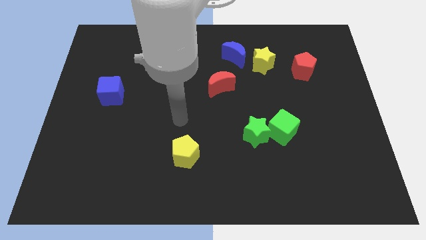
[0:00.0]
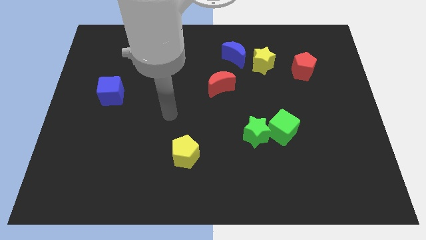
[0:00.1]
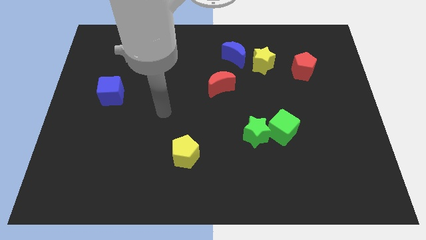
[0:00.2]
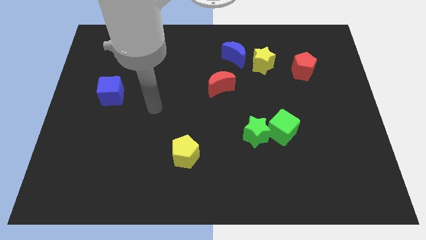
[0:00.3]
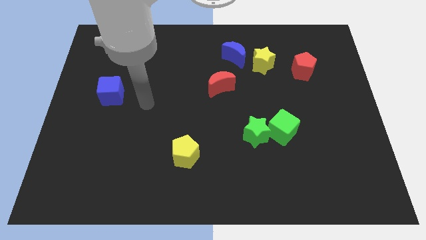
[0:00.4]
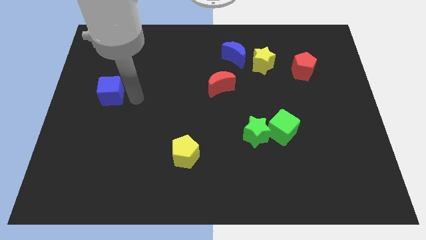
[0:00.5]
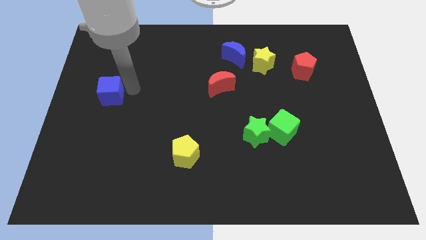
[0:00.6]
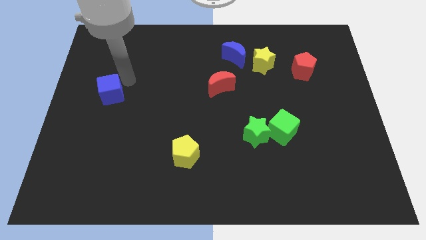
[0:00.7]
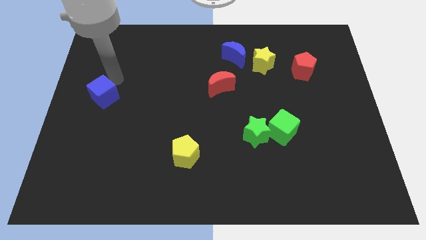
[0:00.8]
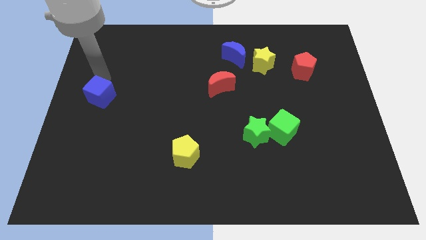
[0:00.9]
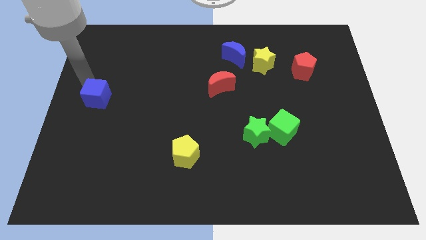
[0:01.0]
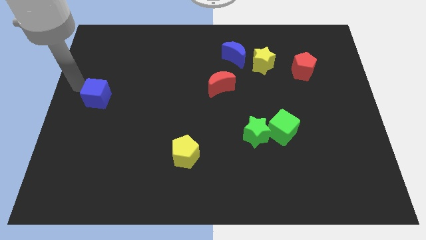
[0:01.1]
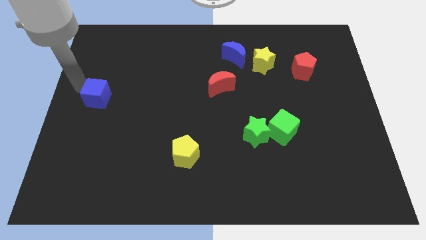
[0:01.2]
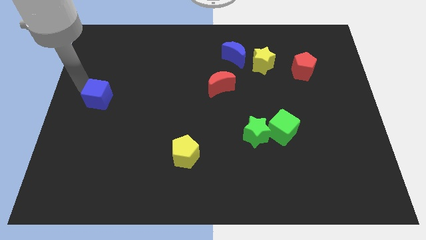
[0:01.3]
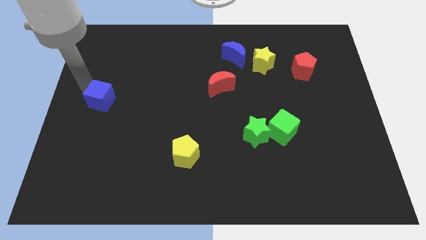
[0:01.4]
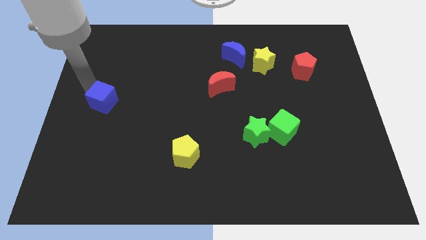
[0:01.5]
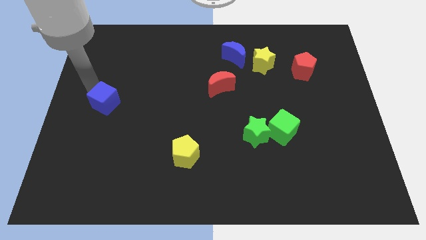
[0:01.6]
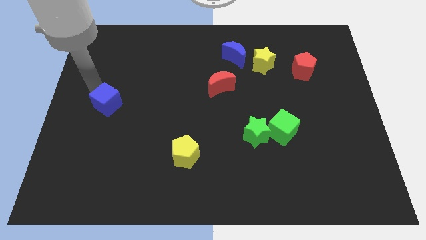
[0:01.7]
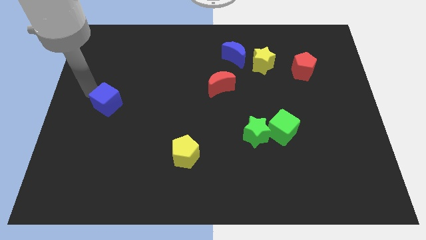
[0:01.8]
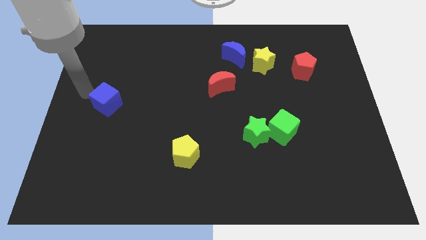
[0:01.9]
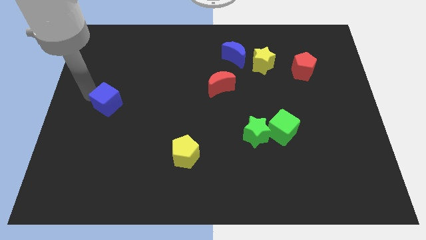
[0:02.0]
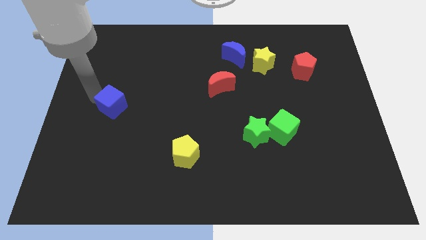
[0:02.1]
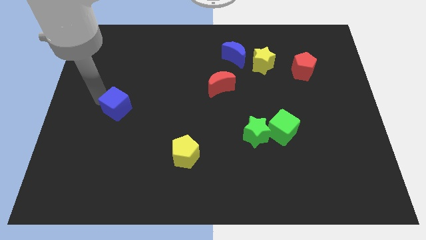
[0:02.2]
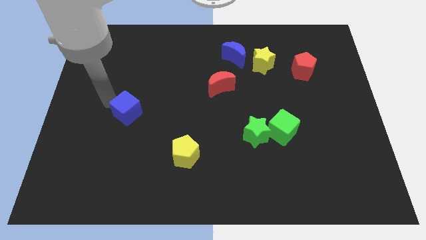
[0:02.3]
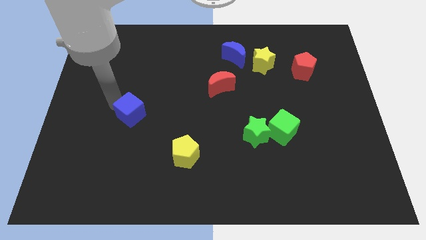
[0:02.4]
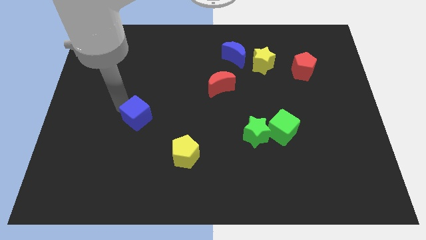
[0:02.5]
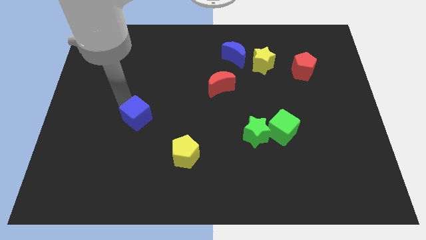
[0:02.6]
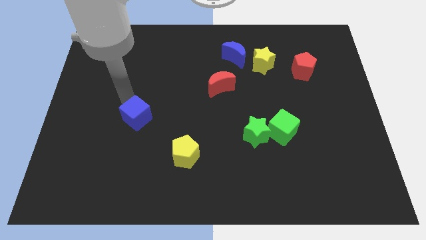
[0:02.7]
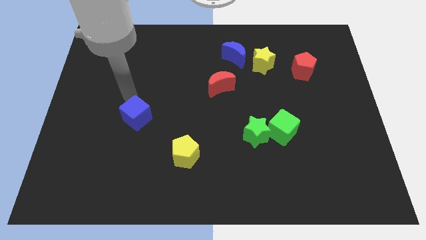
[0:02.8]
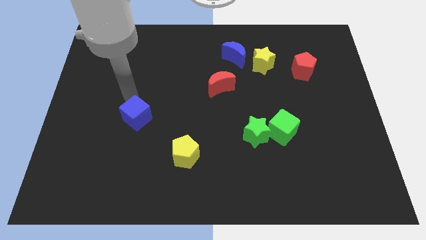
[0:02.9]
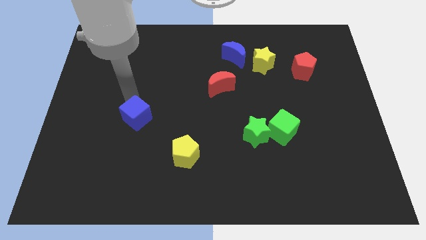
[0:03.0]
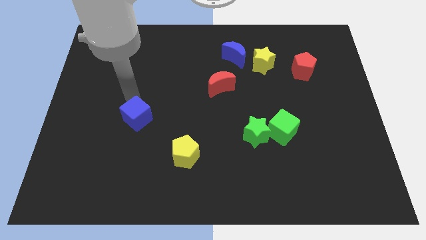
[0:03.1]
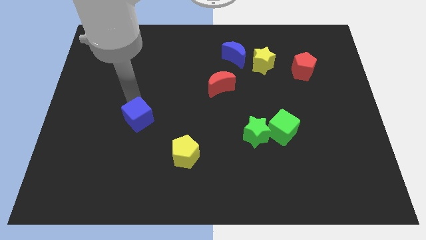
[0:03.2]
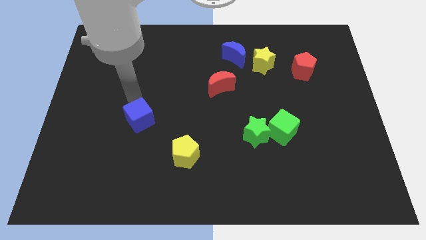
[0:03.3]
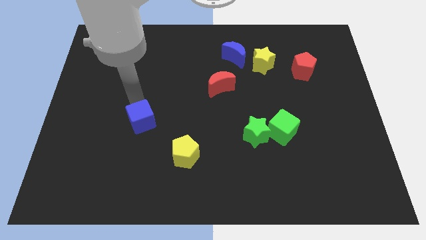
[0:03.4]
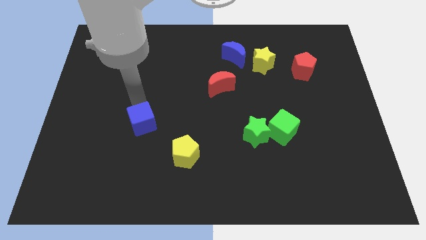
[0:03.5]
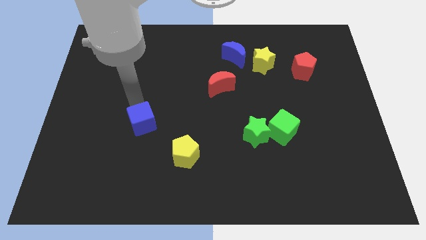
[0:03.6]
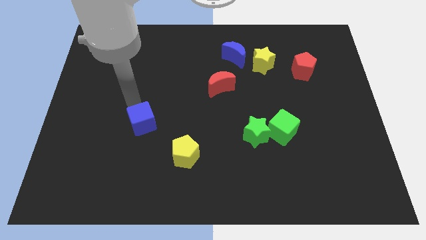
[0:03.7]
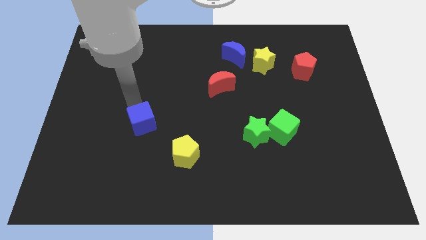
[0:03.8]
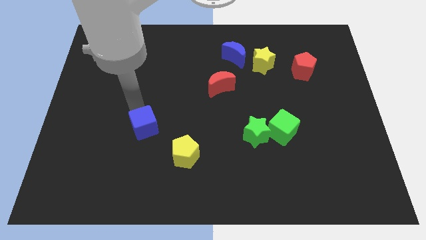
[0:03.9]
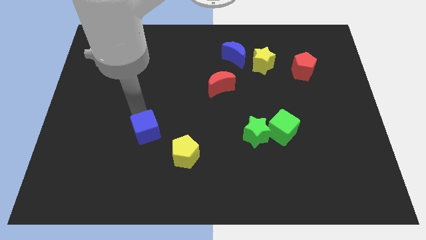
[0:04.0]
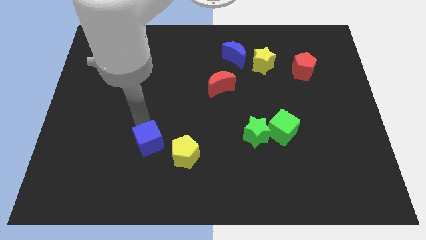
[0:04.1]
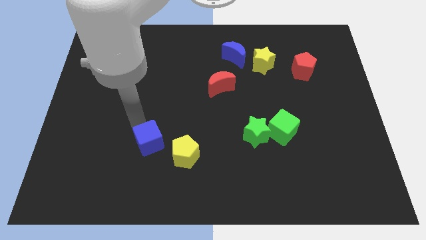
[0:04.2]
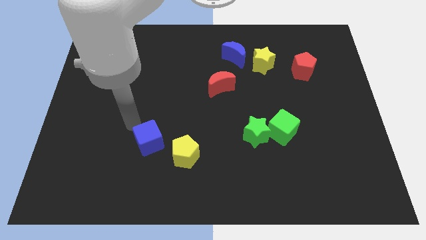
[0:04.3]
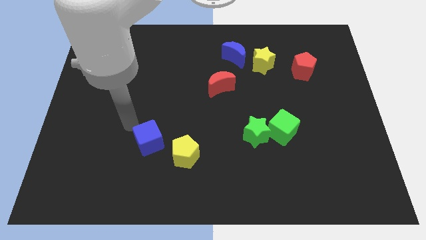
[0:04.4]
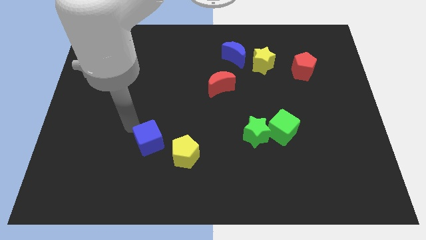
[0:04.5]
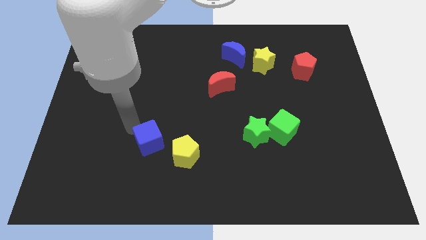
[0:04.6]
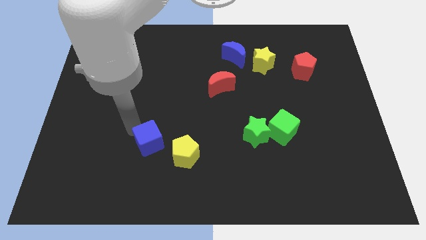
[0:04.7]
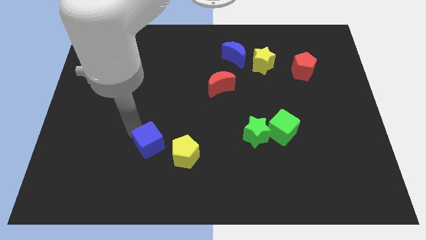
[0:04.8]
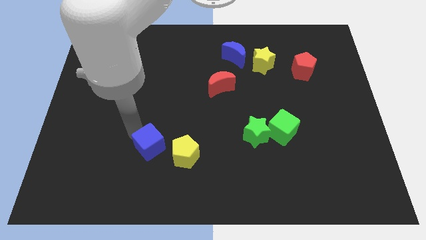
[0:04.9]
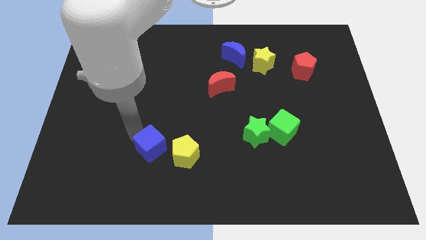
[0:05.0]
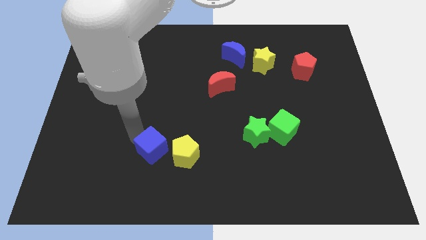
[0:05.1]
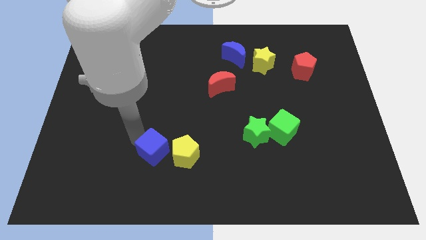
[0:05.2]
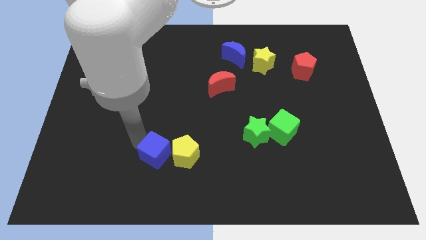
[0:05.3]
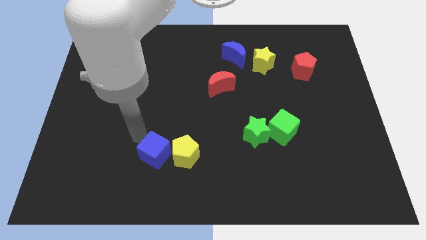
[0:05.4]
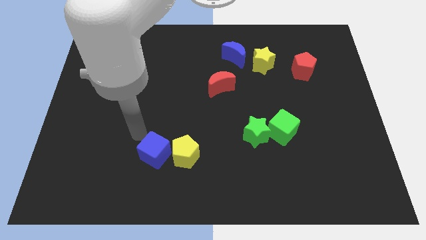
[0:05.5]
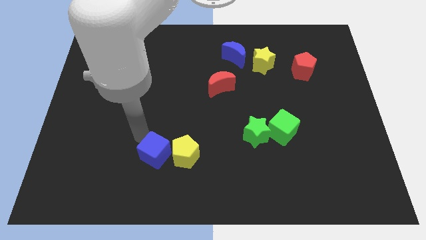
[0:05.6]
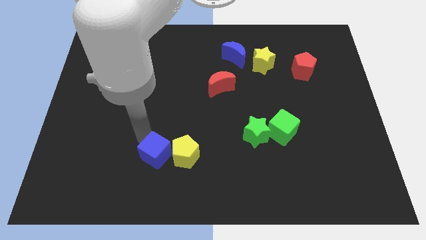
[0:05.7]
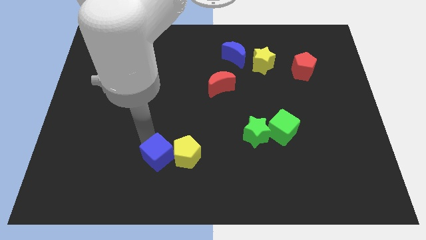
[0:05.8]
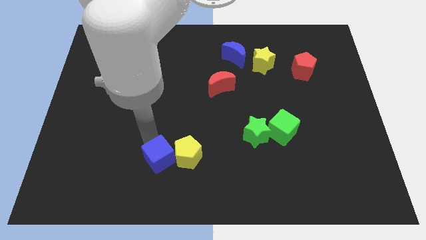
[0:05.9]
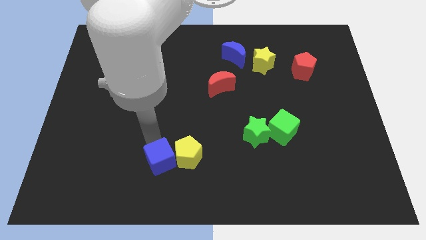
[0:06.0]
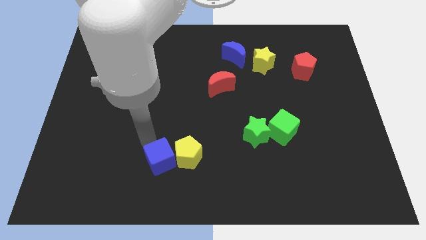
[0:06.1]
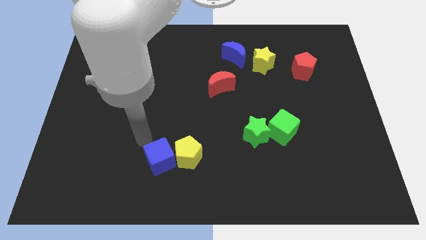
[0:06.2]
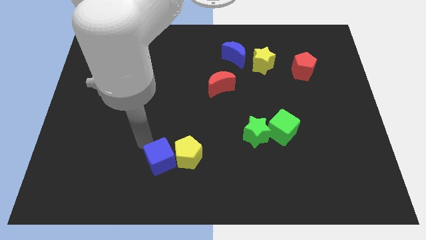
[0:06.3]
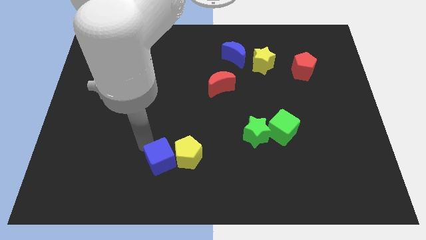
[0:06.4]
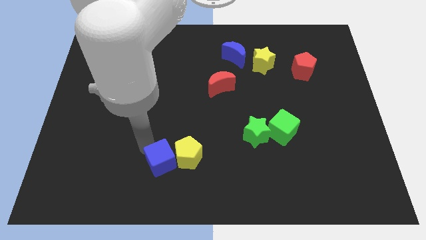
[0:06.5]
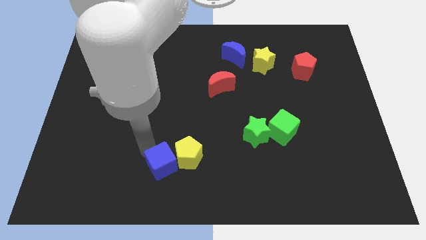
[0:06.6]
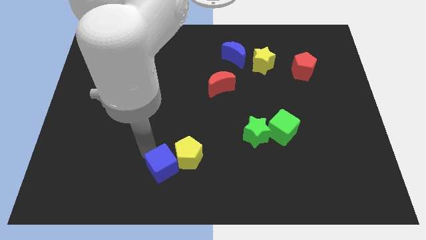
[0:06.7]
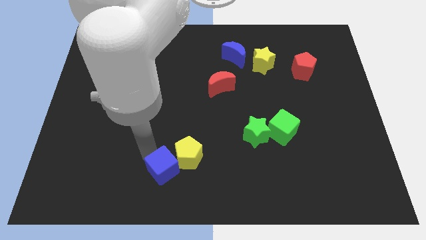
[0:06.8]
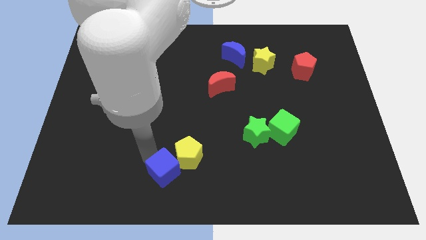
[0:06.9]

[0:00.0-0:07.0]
move the blue cube to the bottom
